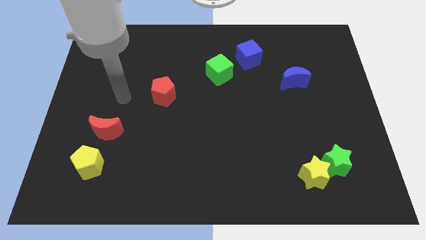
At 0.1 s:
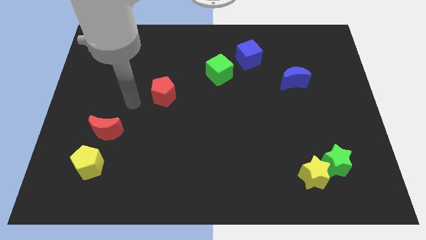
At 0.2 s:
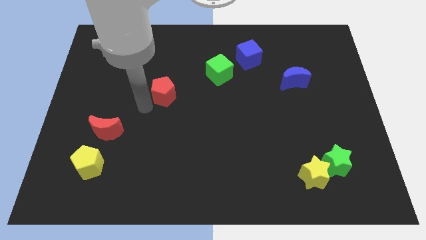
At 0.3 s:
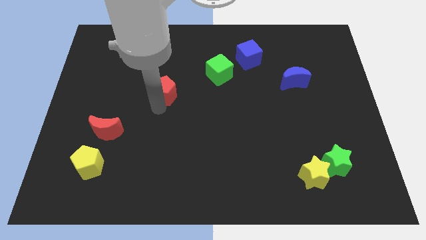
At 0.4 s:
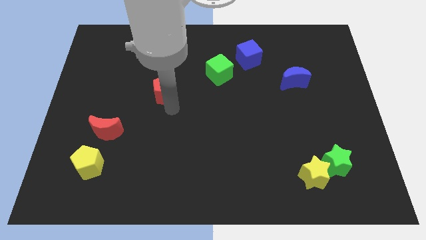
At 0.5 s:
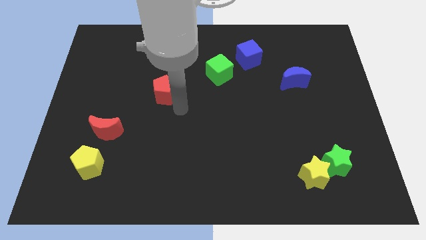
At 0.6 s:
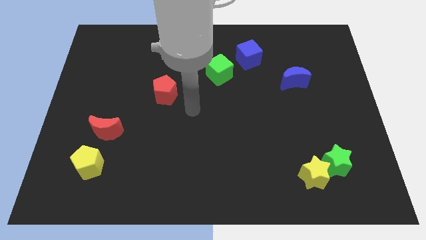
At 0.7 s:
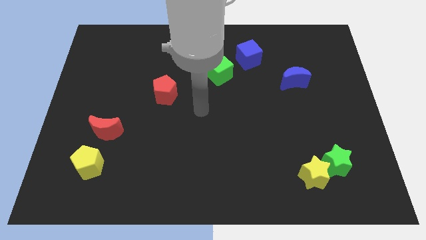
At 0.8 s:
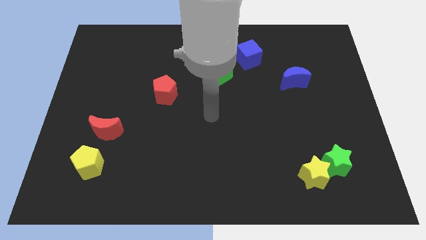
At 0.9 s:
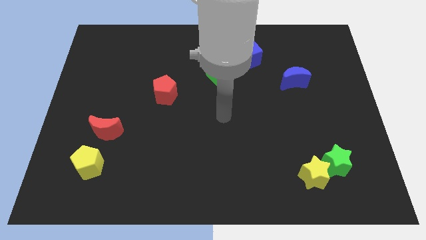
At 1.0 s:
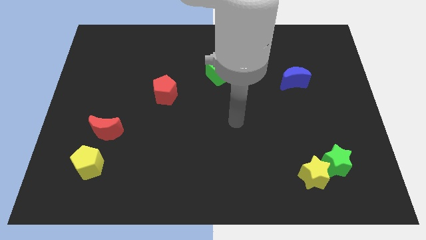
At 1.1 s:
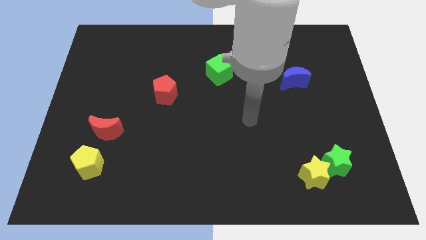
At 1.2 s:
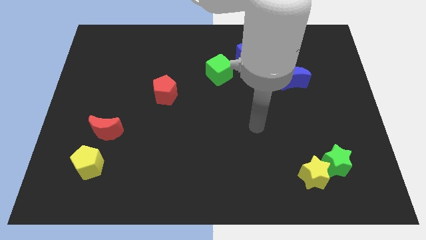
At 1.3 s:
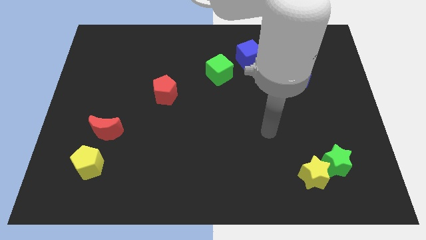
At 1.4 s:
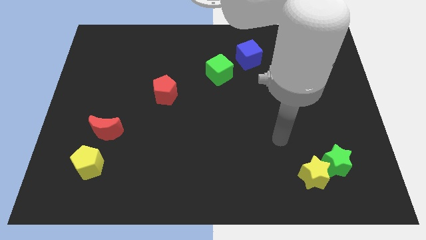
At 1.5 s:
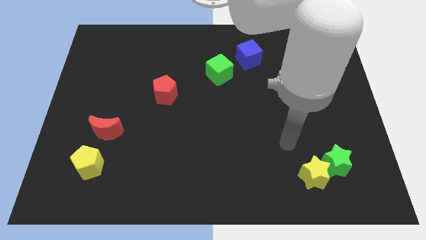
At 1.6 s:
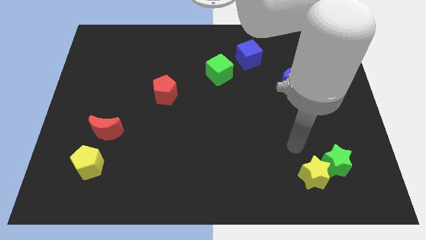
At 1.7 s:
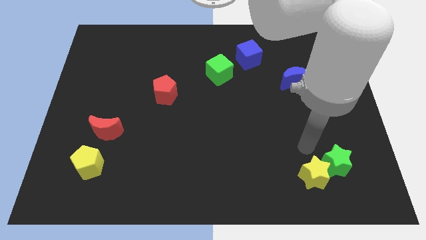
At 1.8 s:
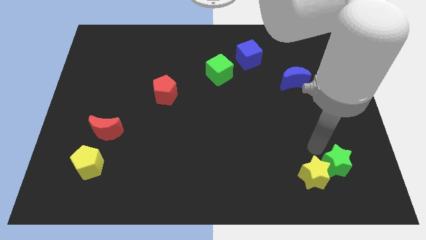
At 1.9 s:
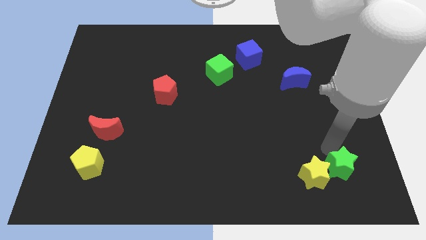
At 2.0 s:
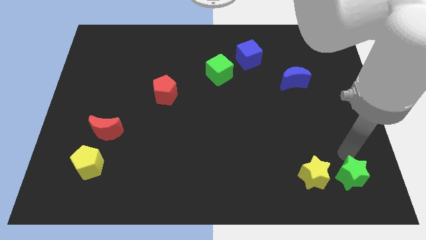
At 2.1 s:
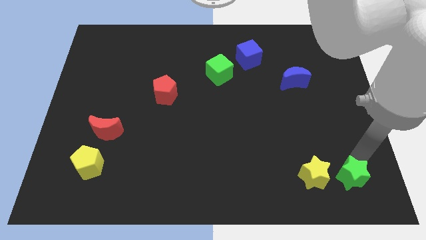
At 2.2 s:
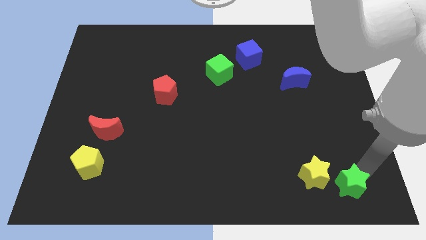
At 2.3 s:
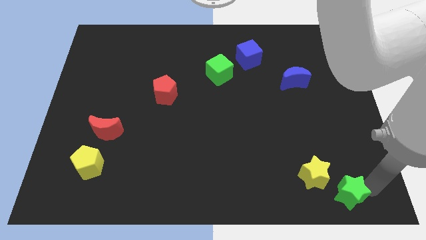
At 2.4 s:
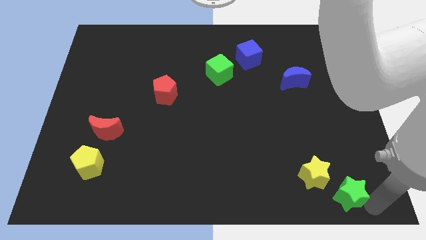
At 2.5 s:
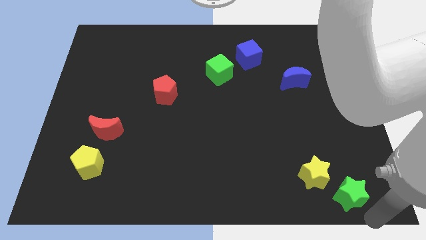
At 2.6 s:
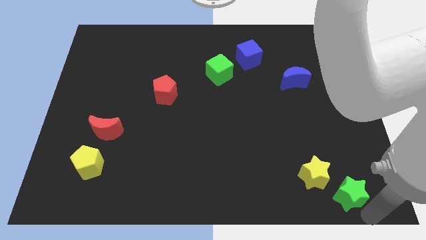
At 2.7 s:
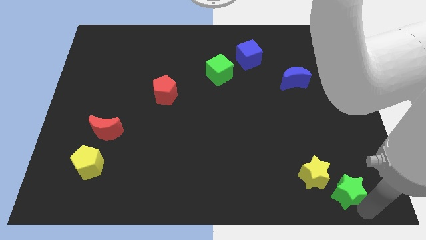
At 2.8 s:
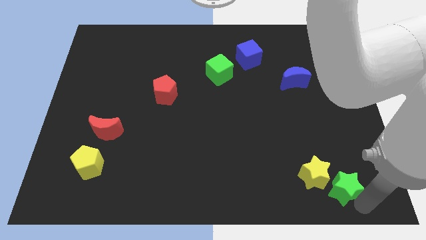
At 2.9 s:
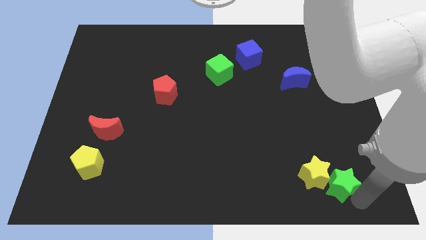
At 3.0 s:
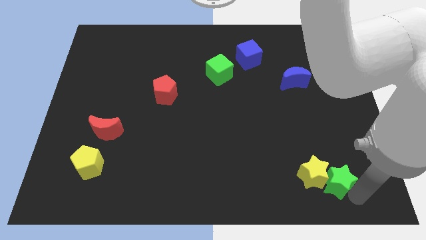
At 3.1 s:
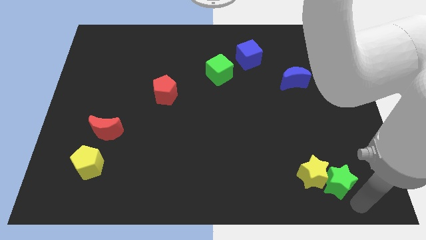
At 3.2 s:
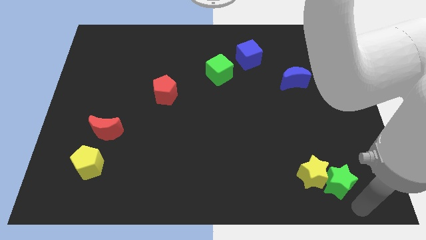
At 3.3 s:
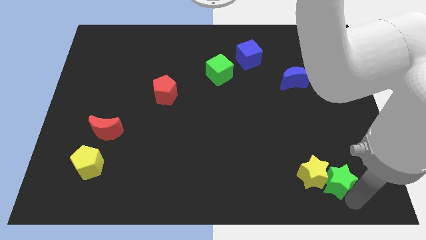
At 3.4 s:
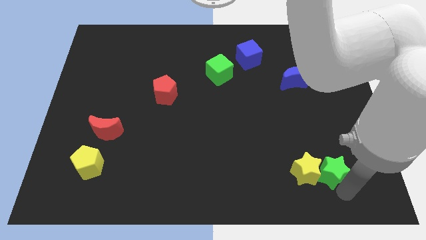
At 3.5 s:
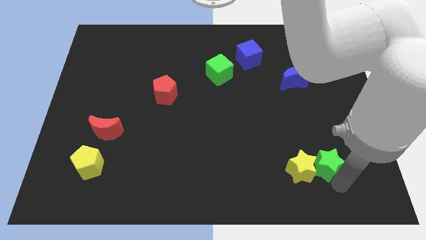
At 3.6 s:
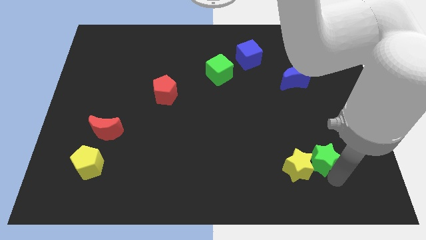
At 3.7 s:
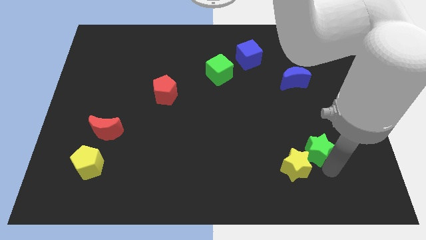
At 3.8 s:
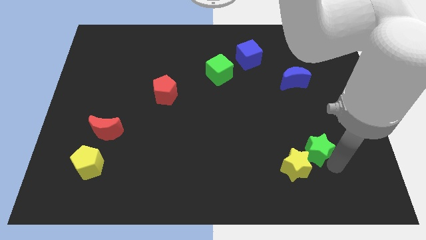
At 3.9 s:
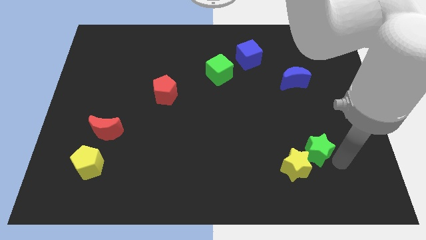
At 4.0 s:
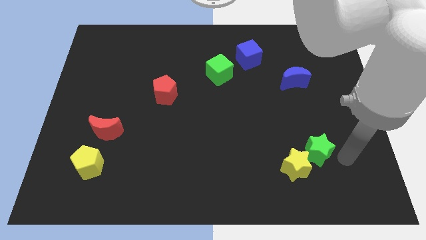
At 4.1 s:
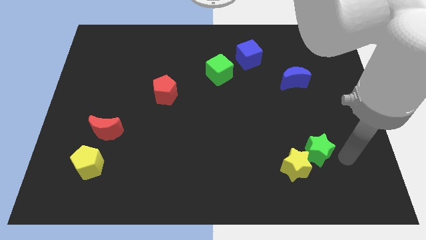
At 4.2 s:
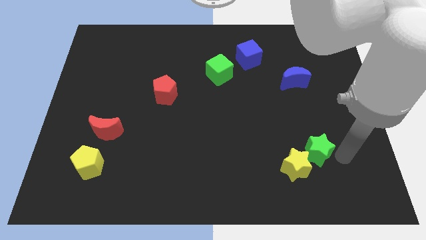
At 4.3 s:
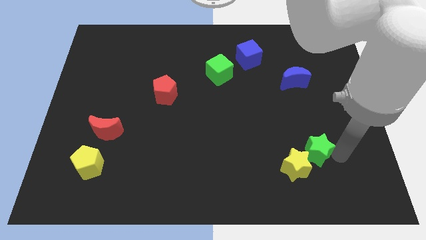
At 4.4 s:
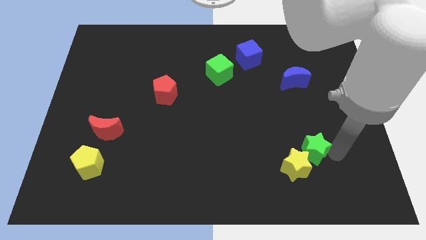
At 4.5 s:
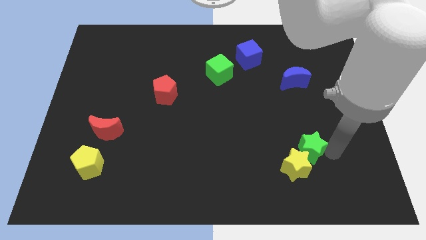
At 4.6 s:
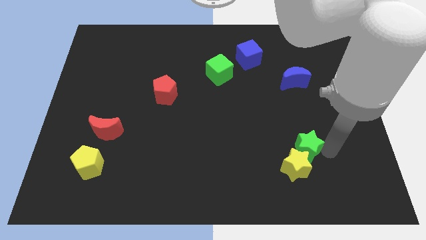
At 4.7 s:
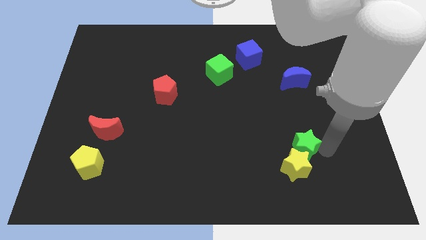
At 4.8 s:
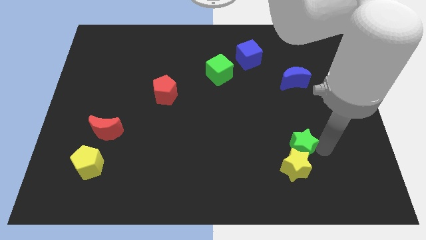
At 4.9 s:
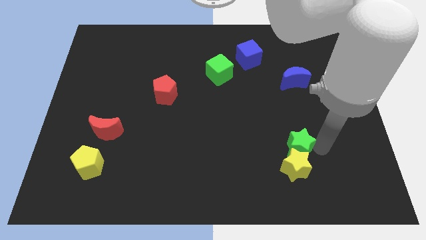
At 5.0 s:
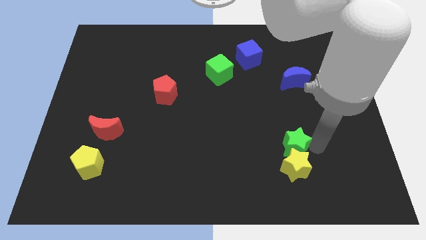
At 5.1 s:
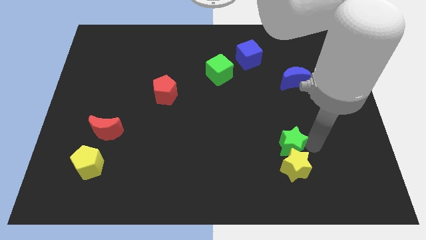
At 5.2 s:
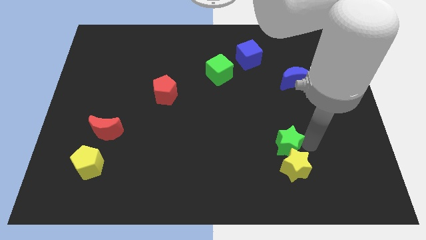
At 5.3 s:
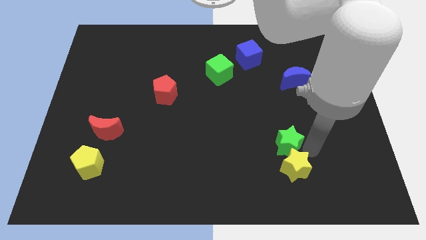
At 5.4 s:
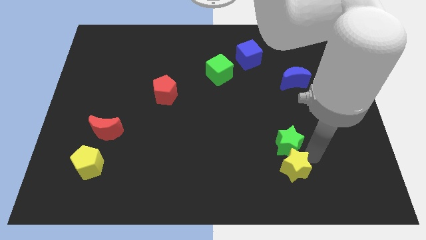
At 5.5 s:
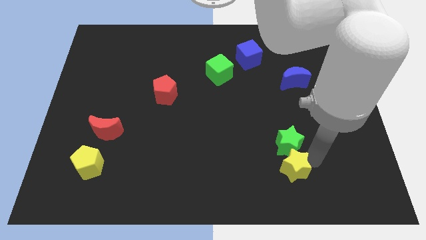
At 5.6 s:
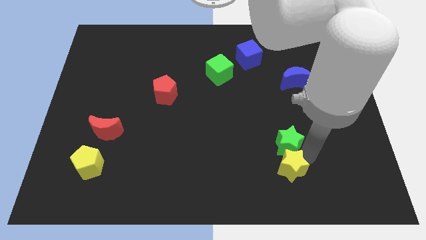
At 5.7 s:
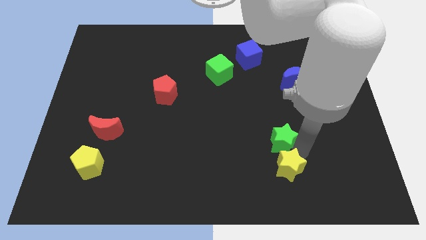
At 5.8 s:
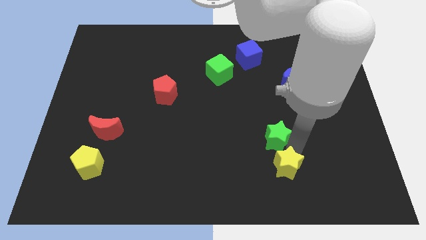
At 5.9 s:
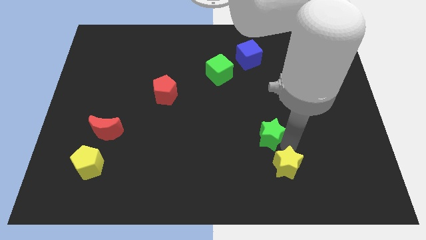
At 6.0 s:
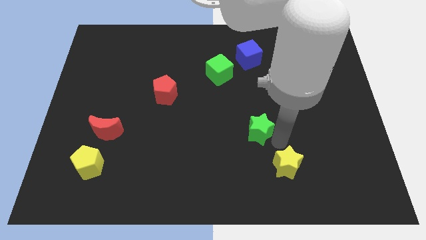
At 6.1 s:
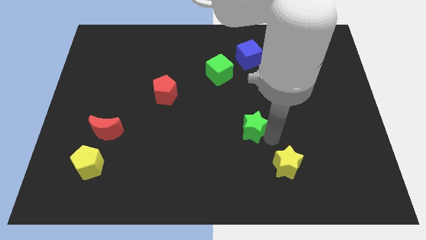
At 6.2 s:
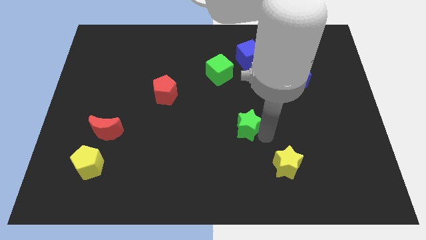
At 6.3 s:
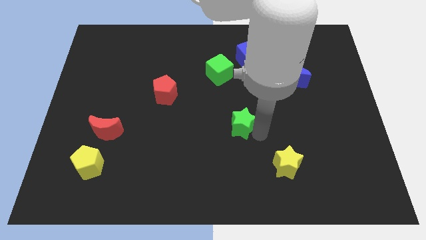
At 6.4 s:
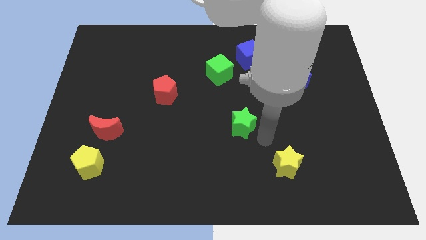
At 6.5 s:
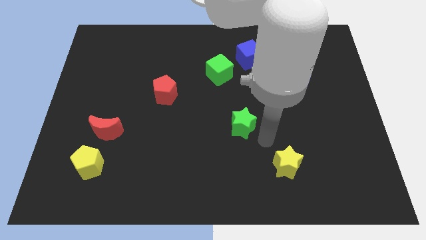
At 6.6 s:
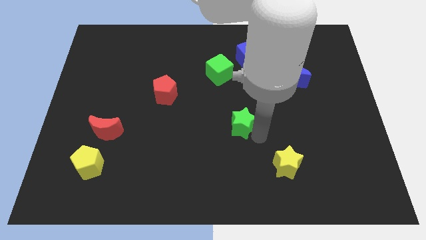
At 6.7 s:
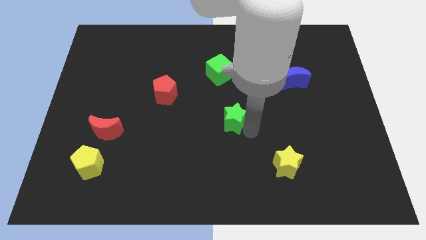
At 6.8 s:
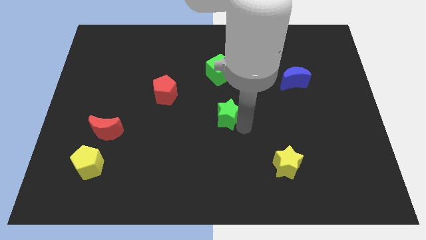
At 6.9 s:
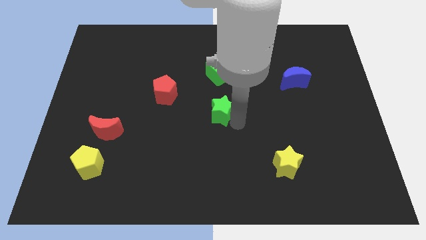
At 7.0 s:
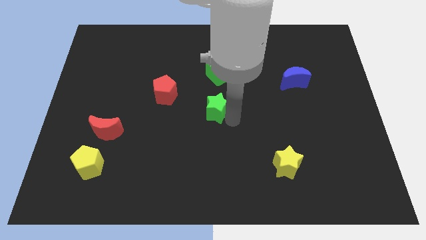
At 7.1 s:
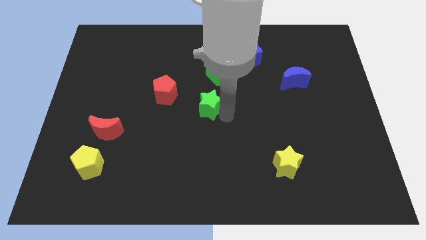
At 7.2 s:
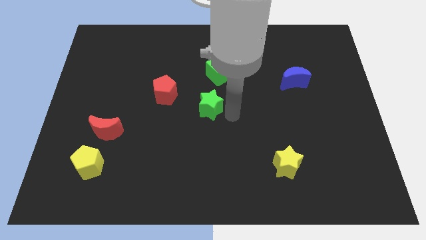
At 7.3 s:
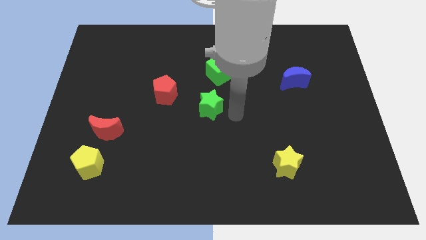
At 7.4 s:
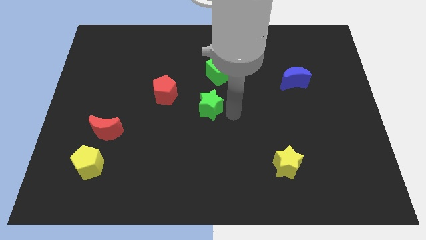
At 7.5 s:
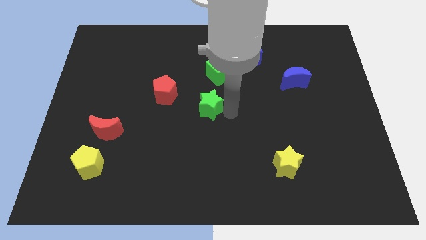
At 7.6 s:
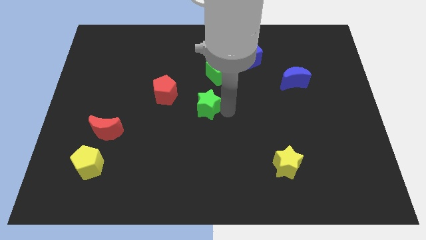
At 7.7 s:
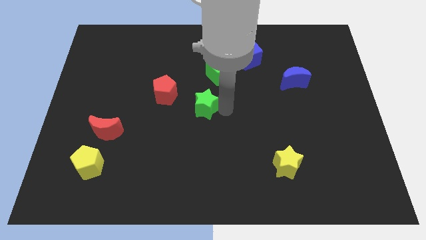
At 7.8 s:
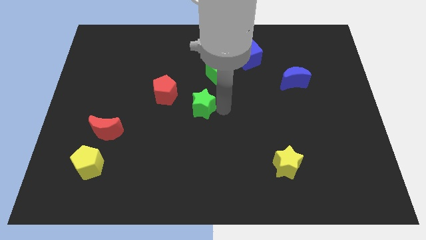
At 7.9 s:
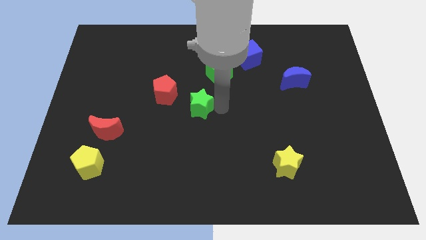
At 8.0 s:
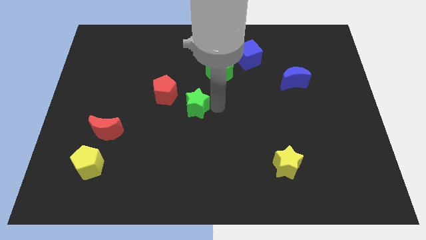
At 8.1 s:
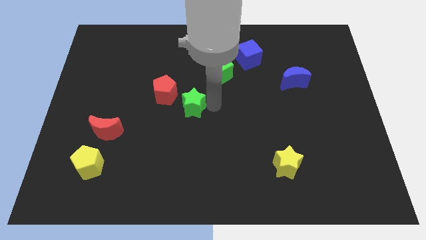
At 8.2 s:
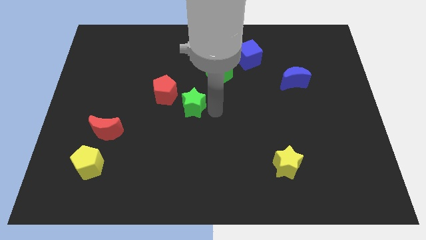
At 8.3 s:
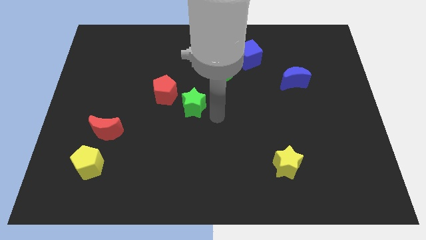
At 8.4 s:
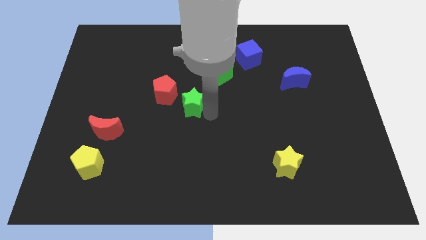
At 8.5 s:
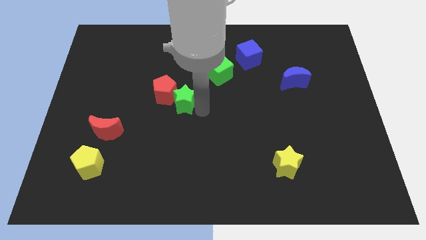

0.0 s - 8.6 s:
put the green star close to the red pentagon
